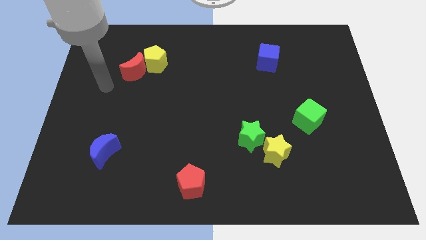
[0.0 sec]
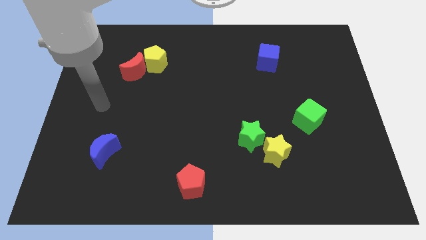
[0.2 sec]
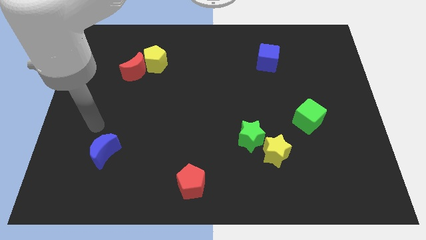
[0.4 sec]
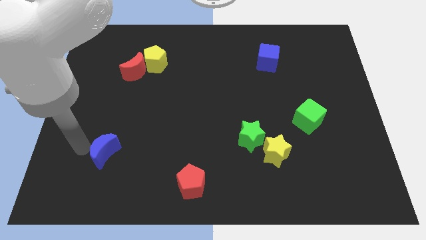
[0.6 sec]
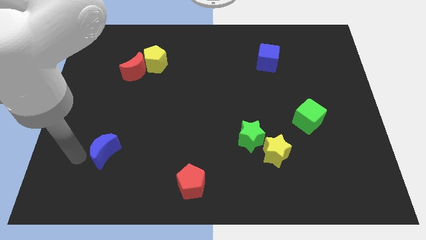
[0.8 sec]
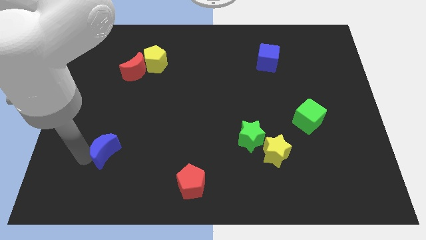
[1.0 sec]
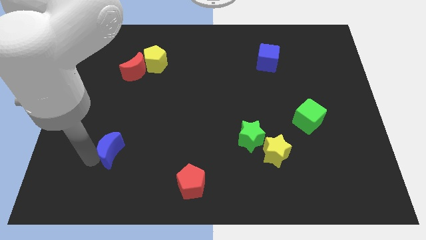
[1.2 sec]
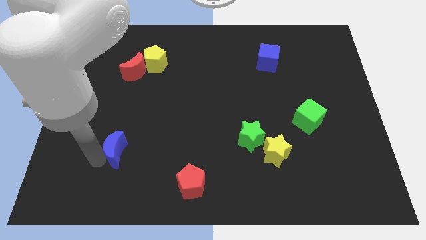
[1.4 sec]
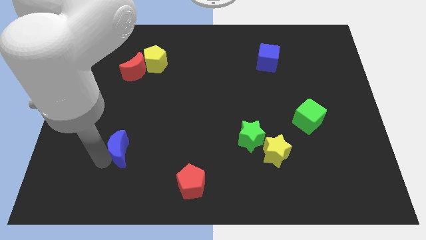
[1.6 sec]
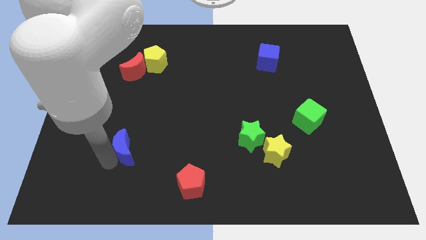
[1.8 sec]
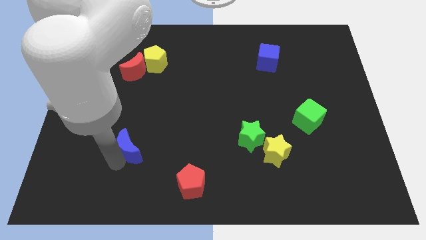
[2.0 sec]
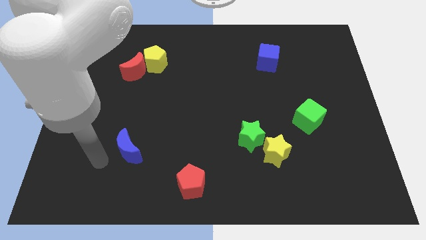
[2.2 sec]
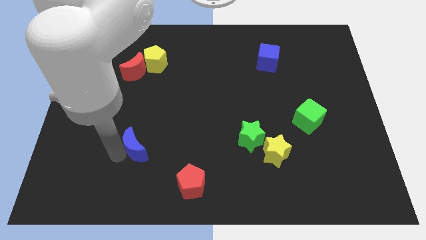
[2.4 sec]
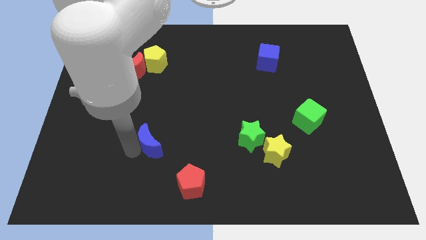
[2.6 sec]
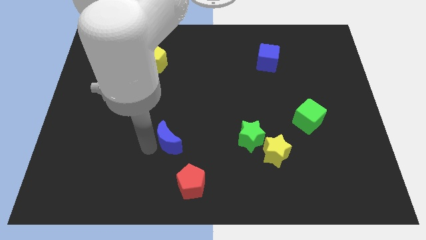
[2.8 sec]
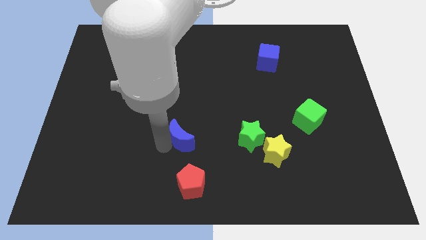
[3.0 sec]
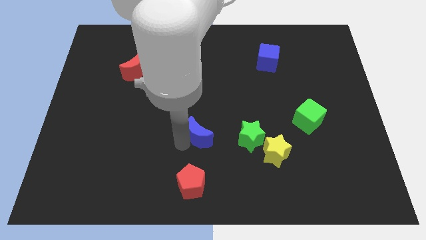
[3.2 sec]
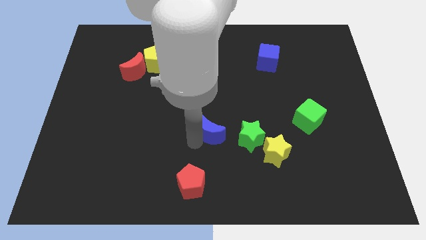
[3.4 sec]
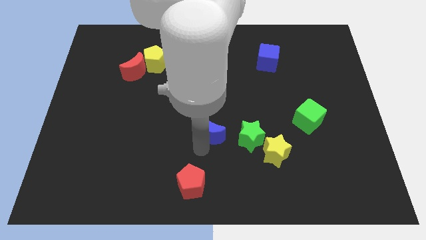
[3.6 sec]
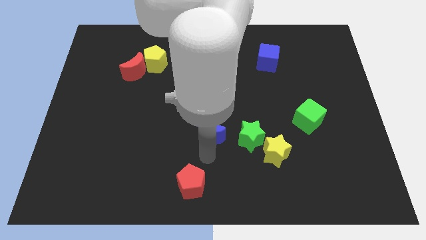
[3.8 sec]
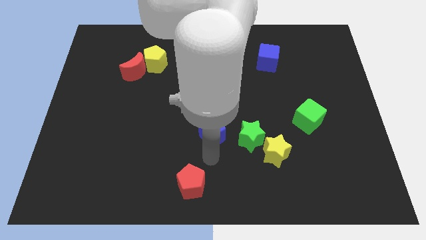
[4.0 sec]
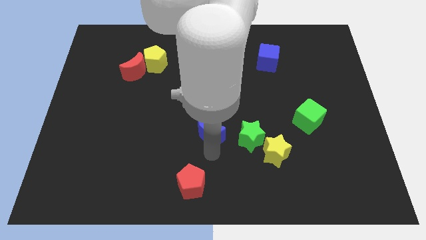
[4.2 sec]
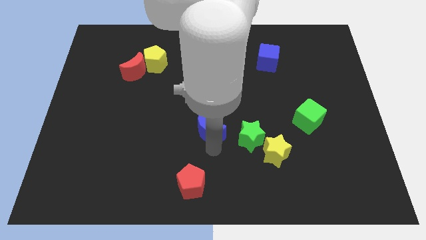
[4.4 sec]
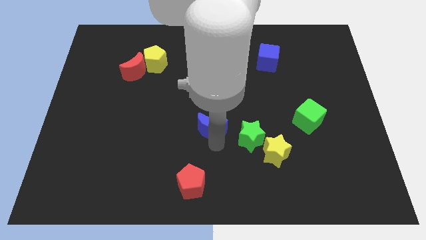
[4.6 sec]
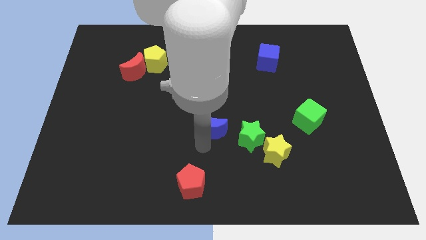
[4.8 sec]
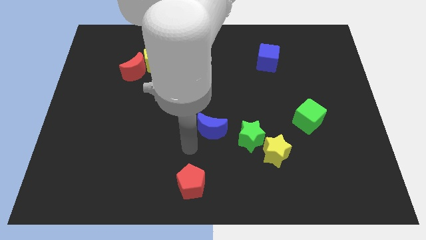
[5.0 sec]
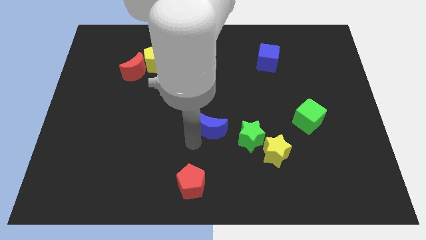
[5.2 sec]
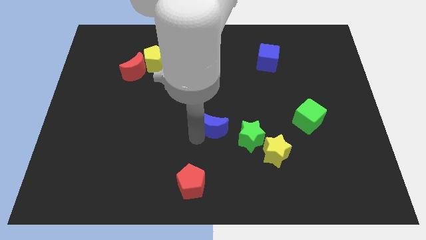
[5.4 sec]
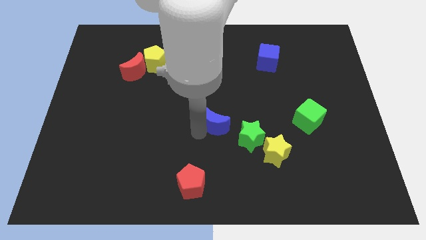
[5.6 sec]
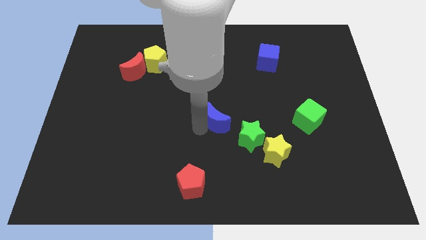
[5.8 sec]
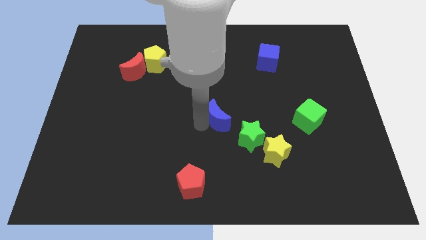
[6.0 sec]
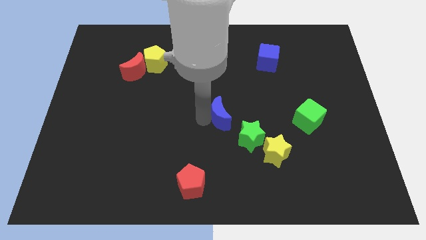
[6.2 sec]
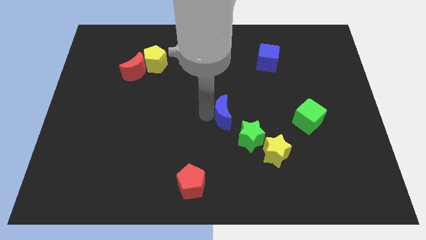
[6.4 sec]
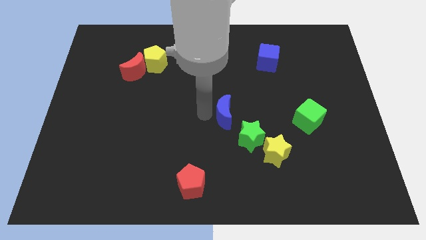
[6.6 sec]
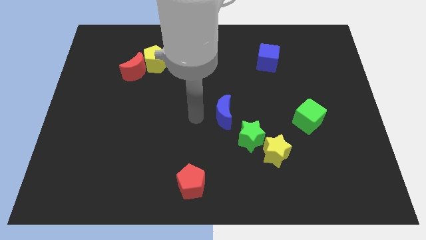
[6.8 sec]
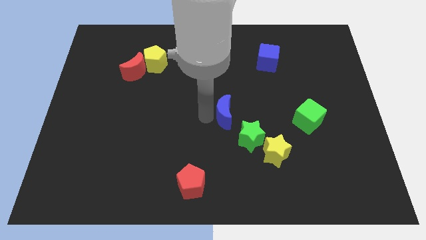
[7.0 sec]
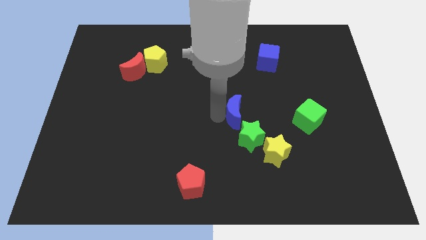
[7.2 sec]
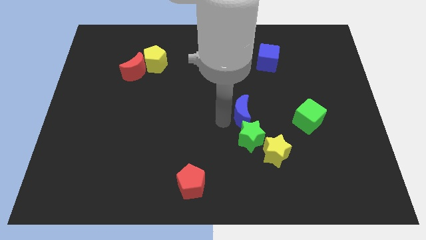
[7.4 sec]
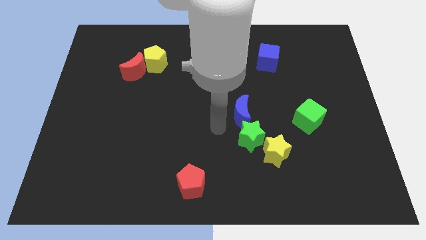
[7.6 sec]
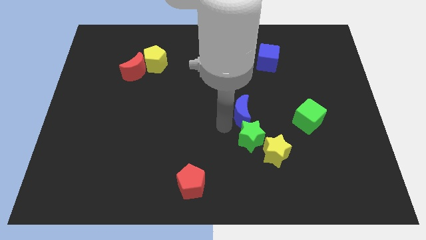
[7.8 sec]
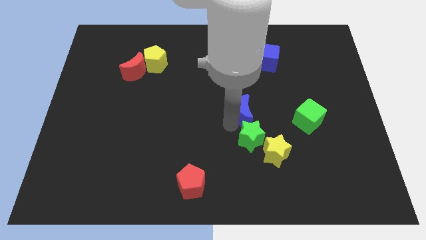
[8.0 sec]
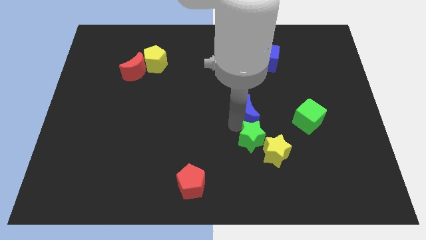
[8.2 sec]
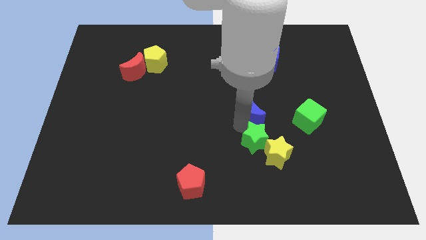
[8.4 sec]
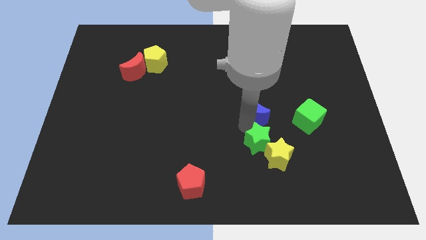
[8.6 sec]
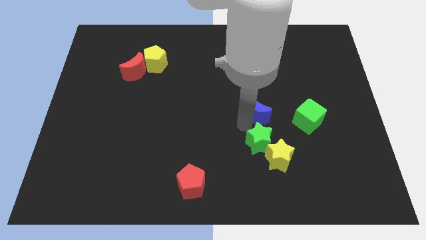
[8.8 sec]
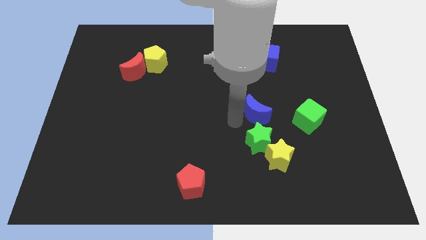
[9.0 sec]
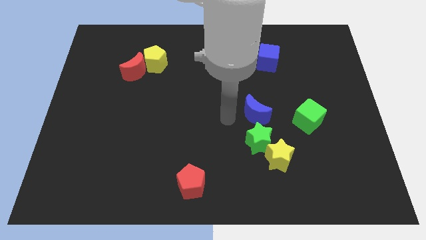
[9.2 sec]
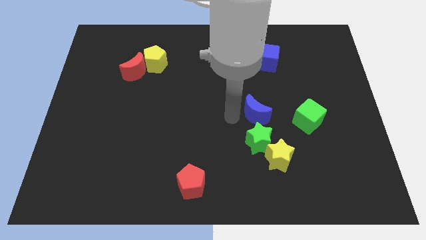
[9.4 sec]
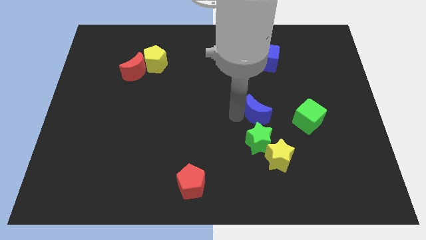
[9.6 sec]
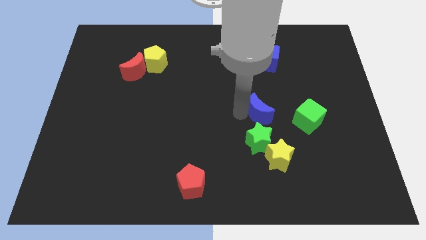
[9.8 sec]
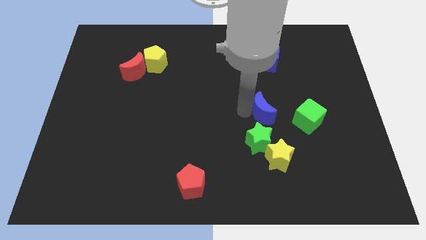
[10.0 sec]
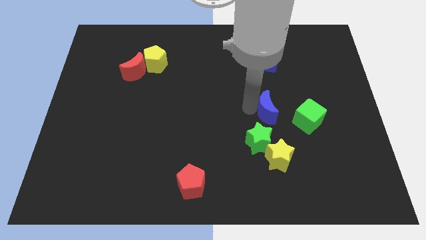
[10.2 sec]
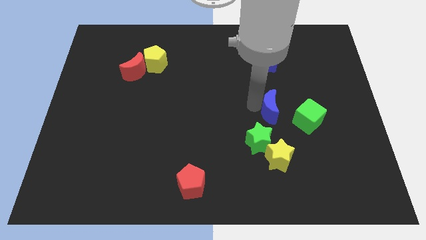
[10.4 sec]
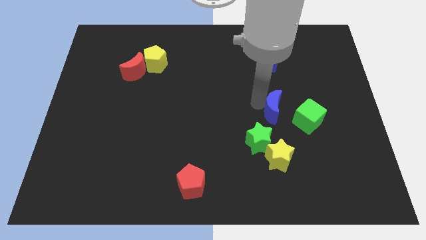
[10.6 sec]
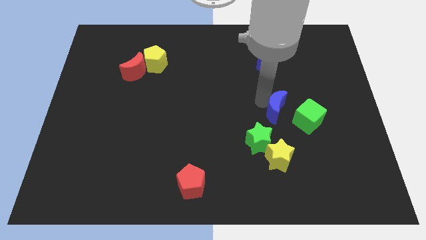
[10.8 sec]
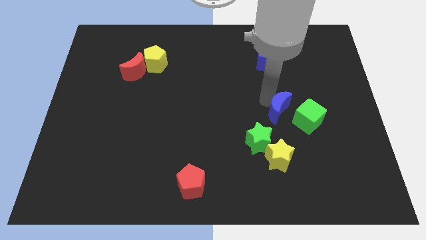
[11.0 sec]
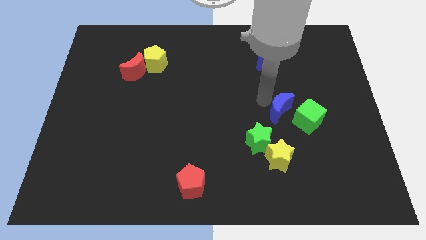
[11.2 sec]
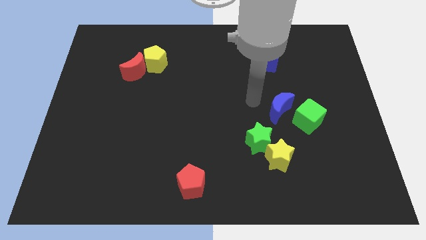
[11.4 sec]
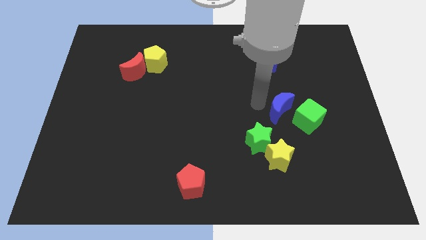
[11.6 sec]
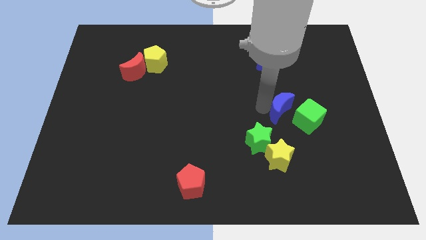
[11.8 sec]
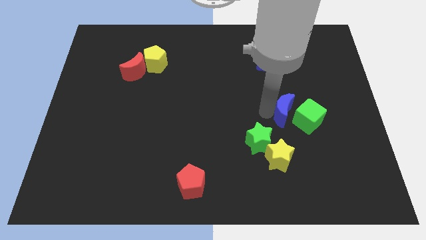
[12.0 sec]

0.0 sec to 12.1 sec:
slide the blue moon towards the green cube

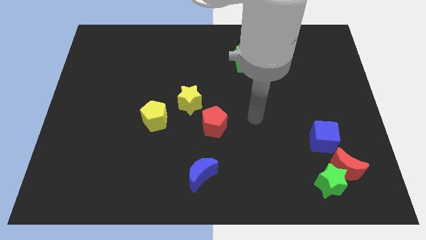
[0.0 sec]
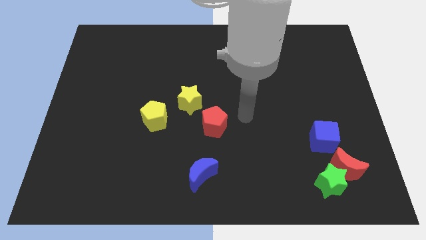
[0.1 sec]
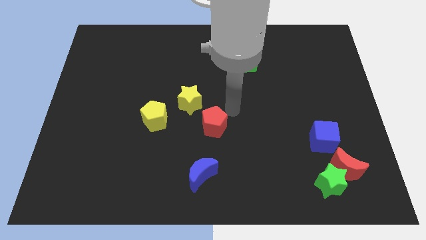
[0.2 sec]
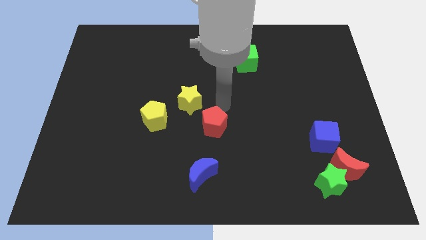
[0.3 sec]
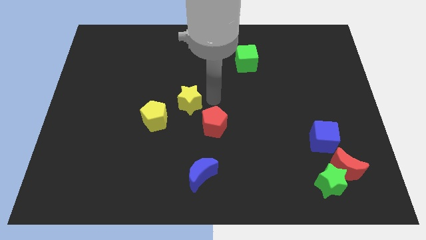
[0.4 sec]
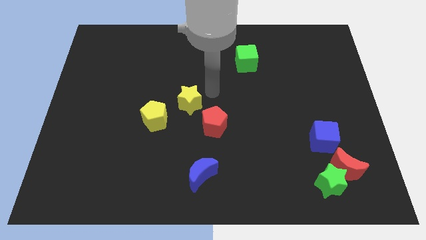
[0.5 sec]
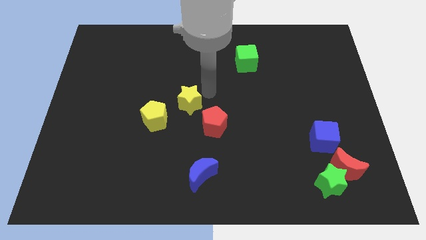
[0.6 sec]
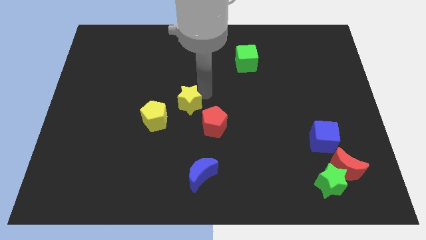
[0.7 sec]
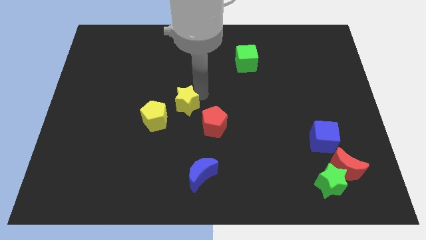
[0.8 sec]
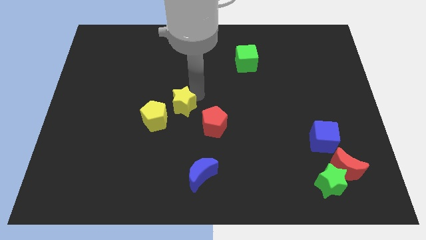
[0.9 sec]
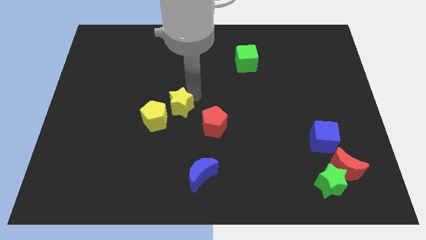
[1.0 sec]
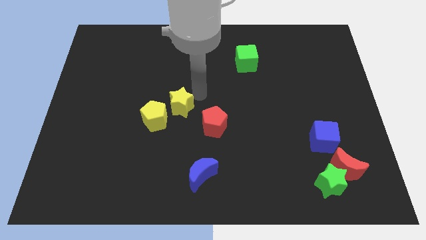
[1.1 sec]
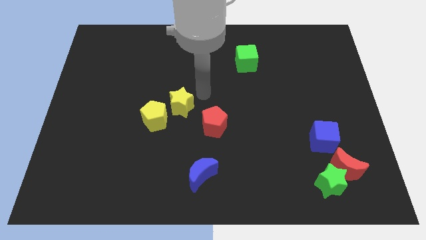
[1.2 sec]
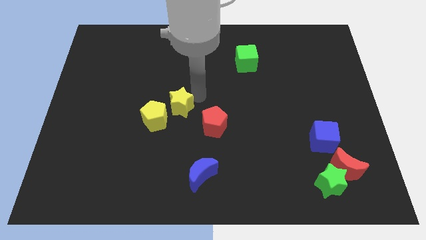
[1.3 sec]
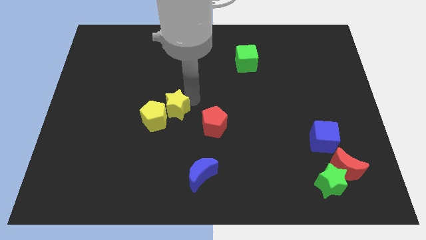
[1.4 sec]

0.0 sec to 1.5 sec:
move the yellow star to the yellow pentagon
